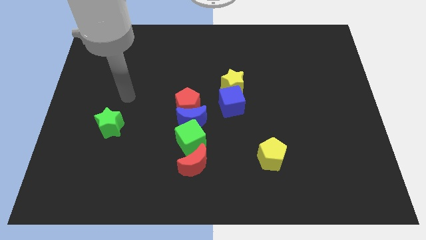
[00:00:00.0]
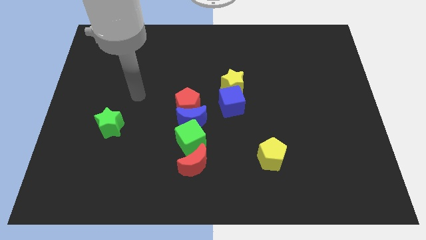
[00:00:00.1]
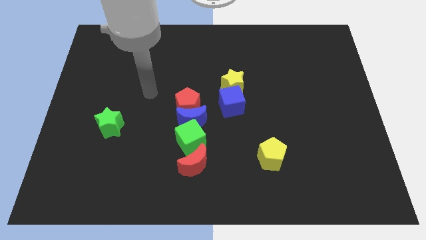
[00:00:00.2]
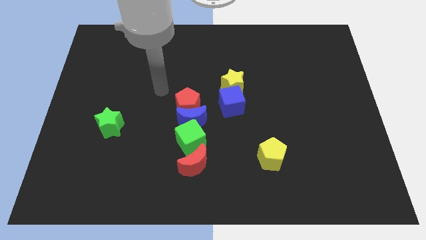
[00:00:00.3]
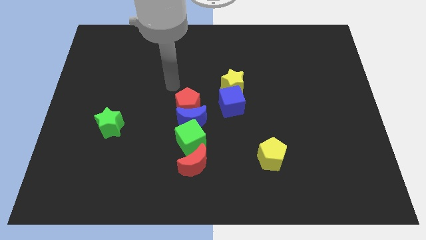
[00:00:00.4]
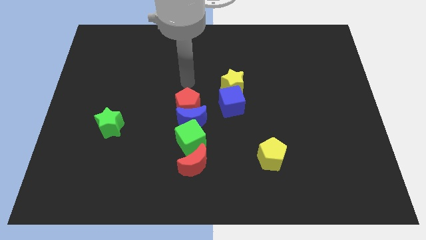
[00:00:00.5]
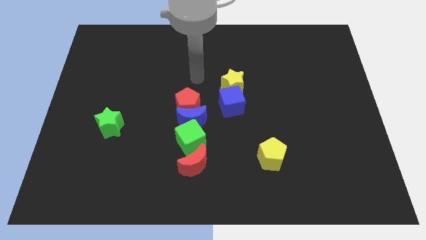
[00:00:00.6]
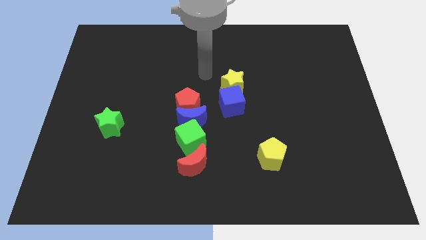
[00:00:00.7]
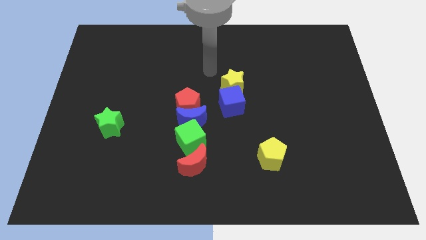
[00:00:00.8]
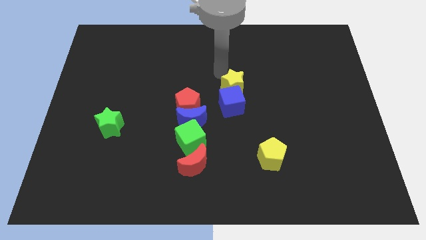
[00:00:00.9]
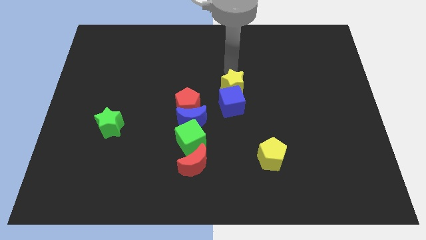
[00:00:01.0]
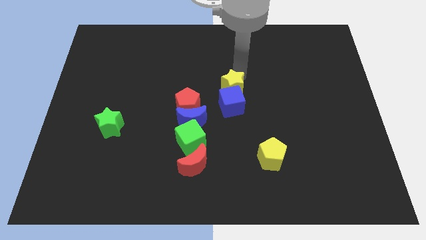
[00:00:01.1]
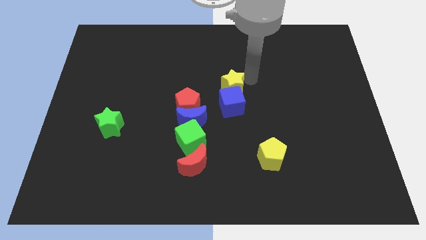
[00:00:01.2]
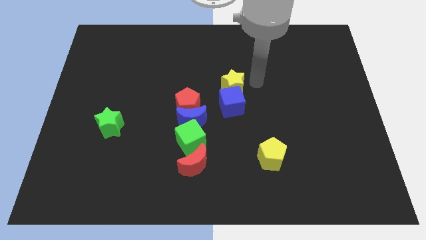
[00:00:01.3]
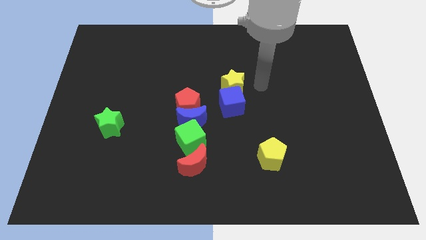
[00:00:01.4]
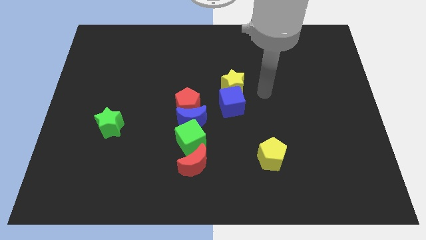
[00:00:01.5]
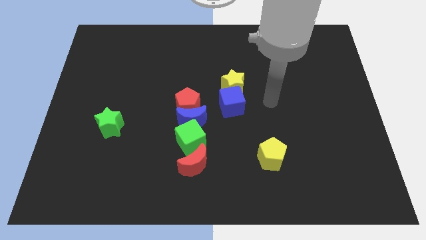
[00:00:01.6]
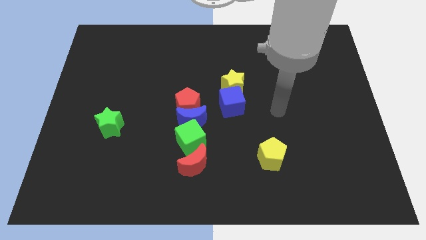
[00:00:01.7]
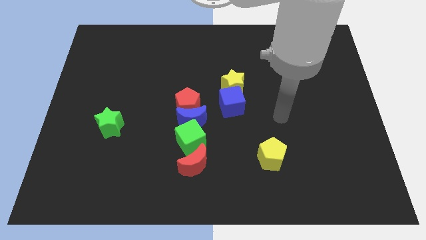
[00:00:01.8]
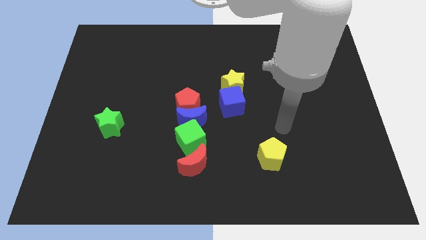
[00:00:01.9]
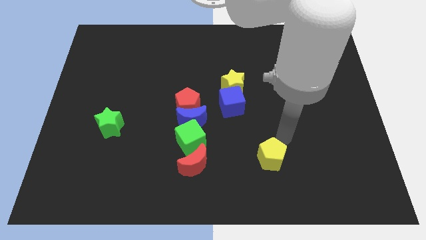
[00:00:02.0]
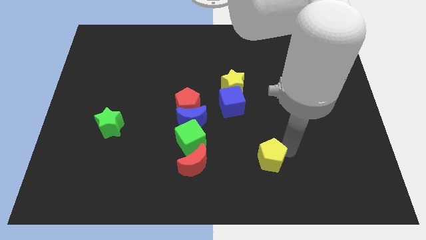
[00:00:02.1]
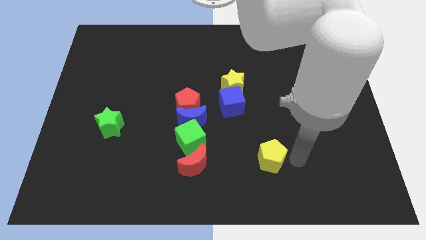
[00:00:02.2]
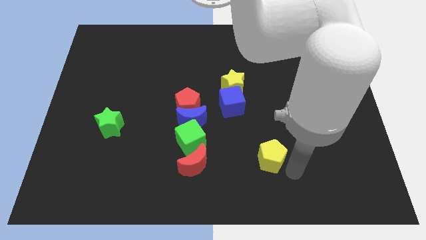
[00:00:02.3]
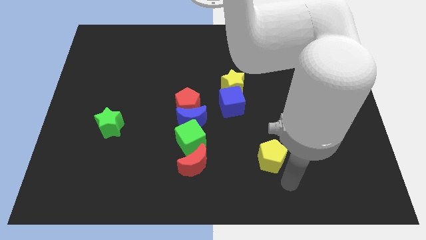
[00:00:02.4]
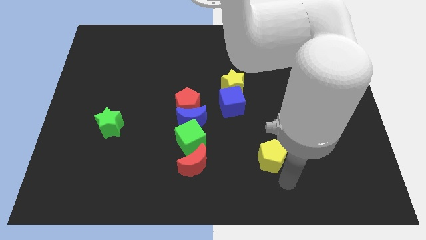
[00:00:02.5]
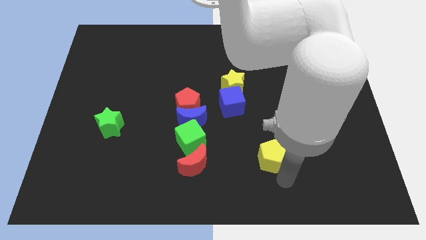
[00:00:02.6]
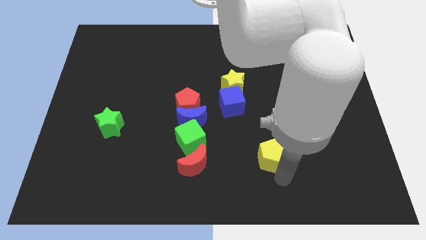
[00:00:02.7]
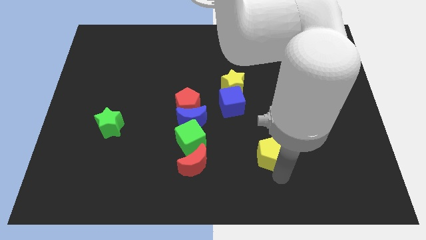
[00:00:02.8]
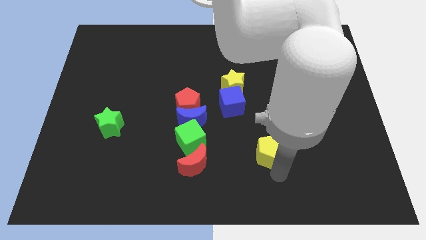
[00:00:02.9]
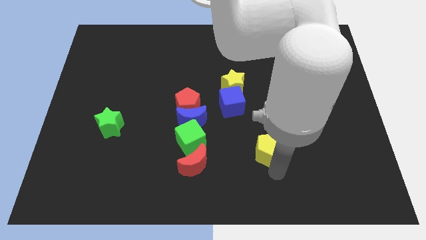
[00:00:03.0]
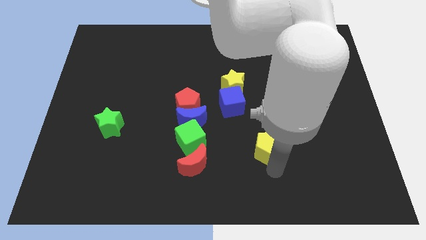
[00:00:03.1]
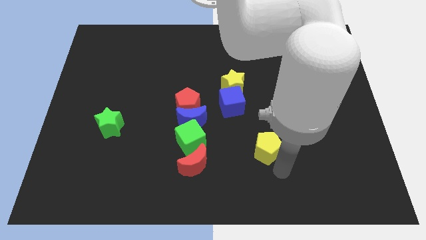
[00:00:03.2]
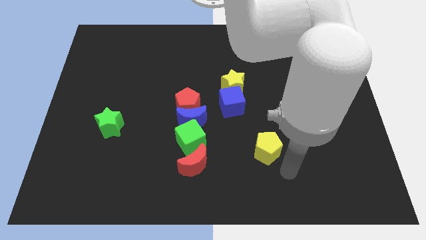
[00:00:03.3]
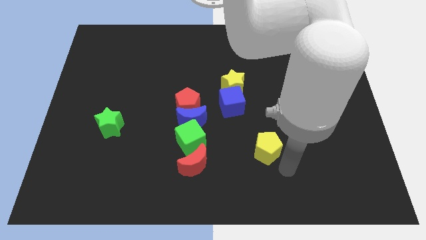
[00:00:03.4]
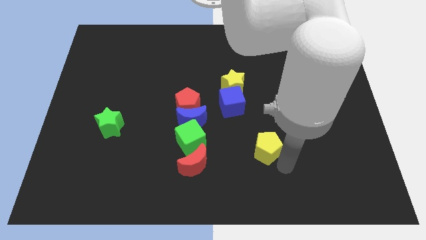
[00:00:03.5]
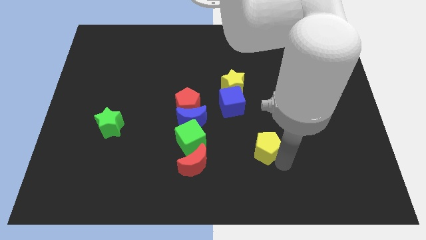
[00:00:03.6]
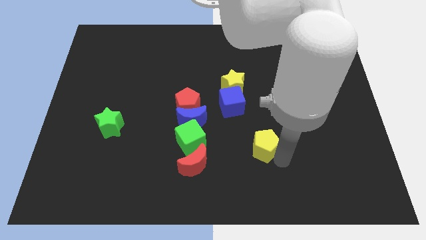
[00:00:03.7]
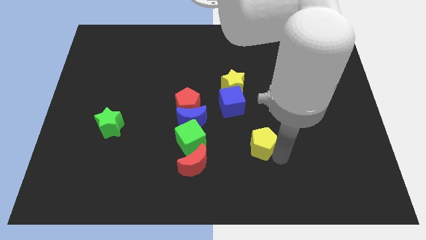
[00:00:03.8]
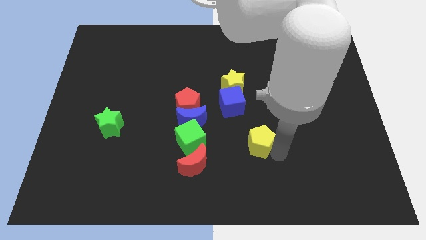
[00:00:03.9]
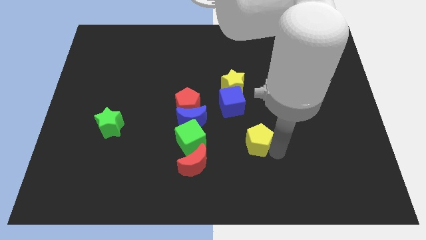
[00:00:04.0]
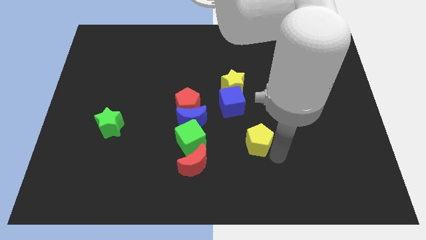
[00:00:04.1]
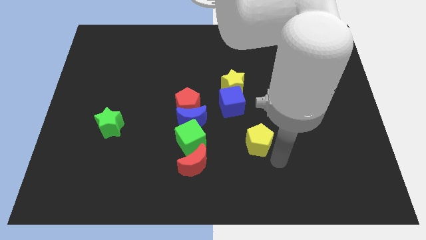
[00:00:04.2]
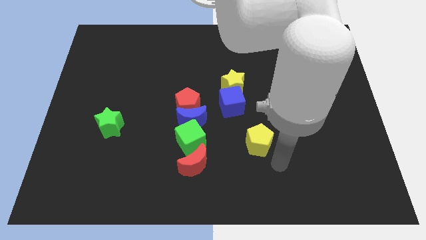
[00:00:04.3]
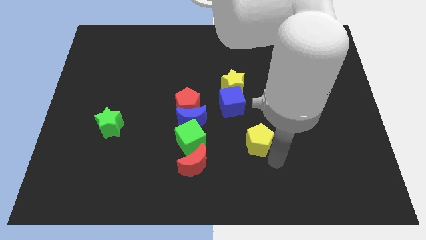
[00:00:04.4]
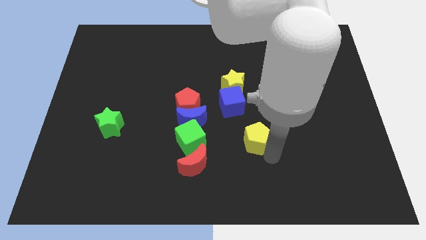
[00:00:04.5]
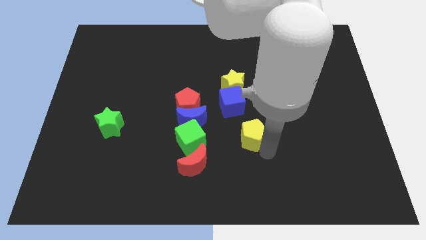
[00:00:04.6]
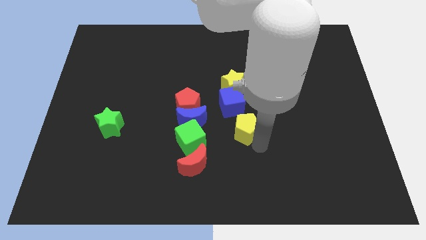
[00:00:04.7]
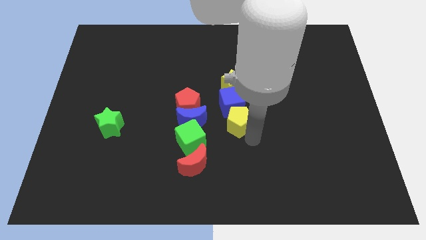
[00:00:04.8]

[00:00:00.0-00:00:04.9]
push the yellow pentagon towards the blue cube

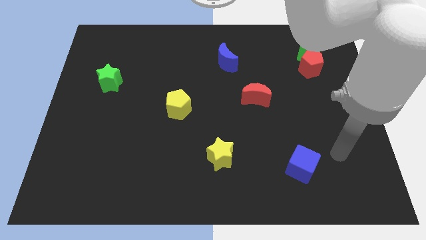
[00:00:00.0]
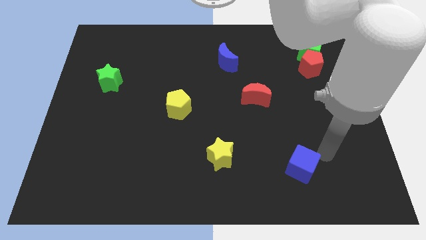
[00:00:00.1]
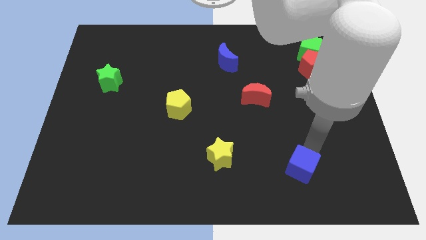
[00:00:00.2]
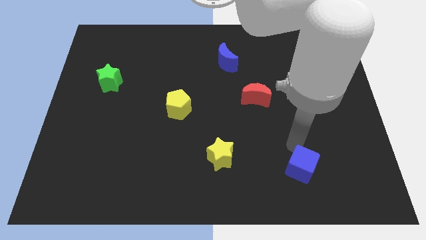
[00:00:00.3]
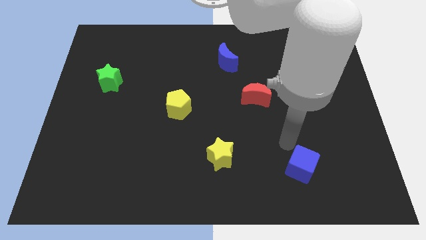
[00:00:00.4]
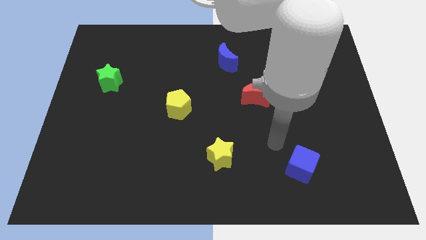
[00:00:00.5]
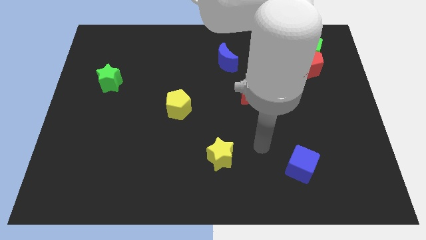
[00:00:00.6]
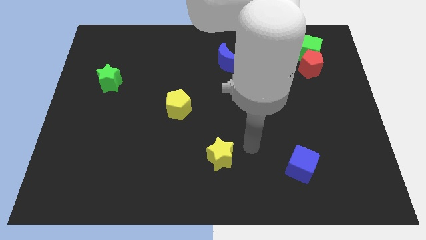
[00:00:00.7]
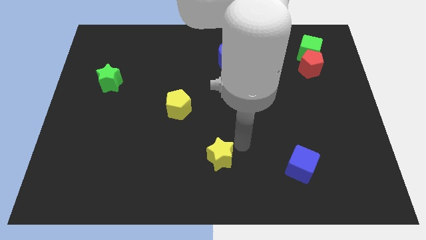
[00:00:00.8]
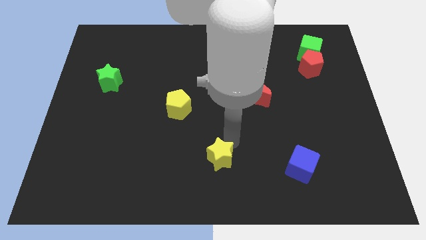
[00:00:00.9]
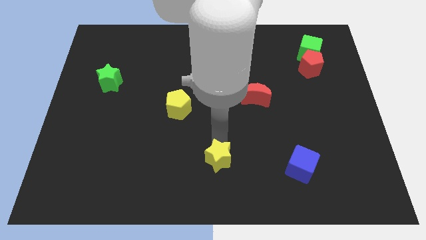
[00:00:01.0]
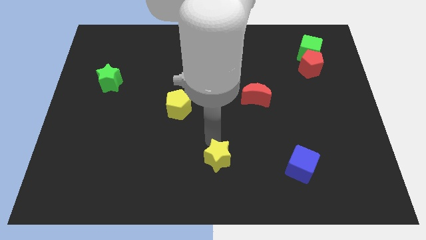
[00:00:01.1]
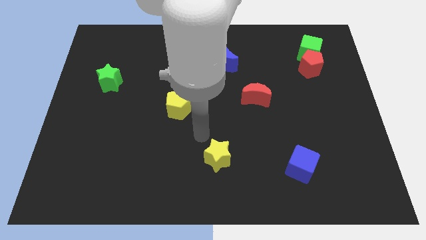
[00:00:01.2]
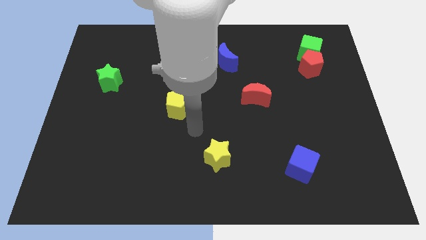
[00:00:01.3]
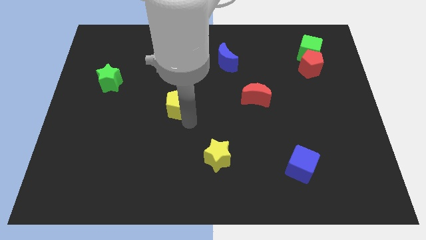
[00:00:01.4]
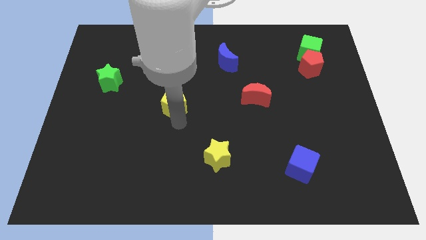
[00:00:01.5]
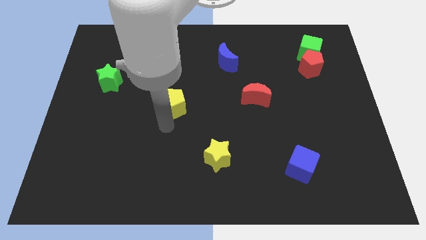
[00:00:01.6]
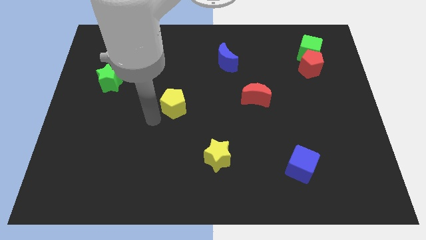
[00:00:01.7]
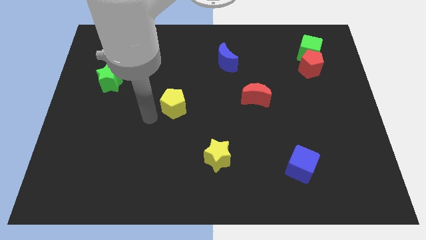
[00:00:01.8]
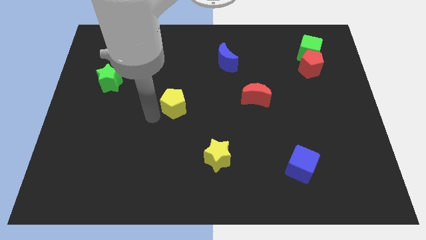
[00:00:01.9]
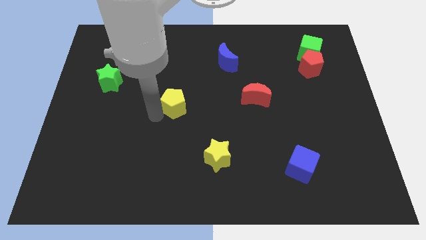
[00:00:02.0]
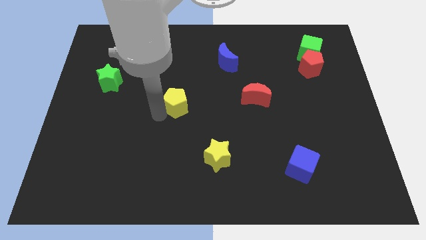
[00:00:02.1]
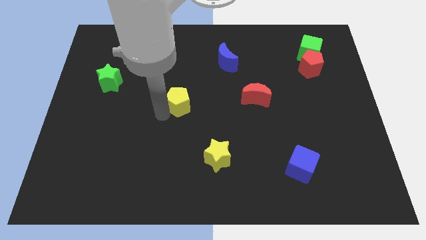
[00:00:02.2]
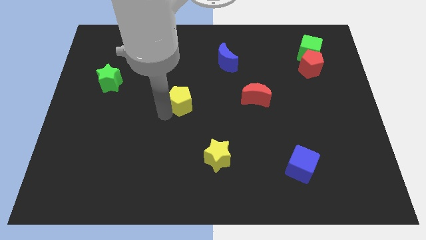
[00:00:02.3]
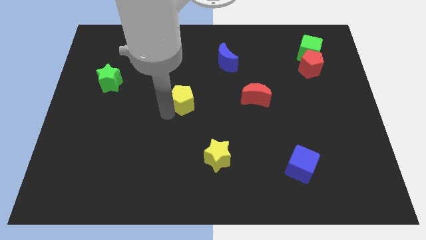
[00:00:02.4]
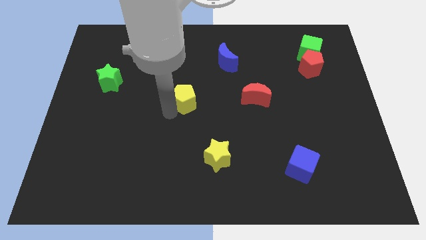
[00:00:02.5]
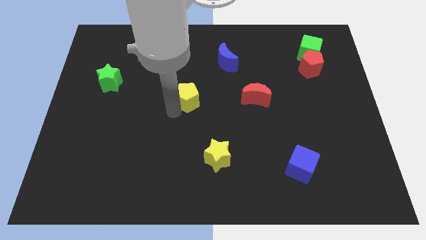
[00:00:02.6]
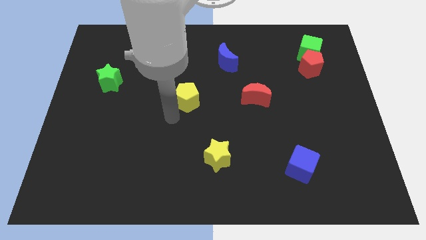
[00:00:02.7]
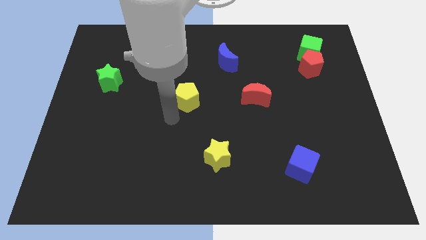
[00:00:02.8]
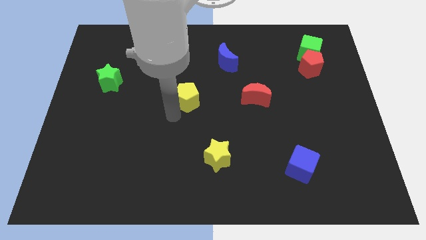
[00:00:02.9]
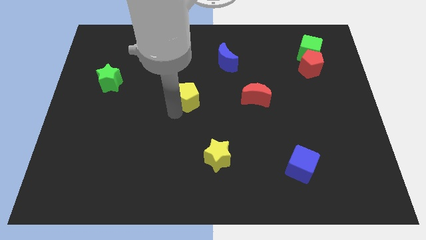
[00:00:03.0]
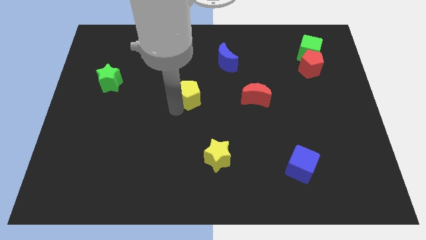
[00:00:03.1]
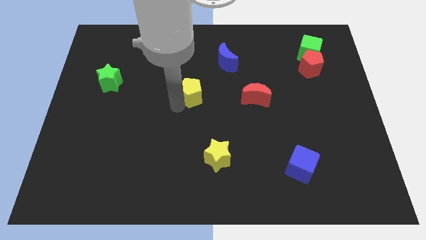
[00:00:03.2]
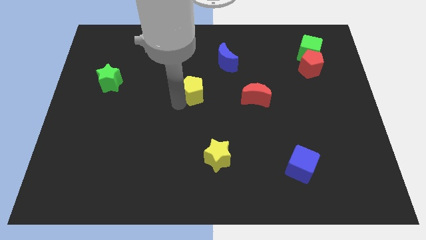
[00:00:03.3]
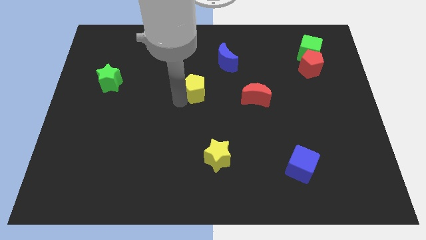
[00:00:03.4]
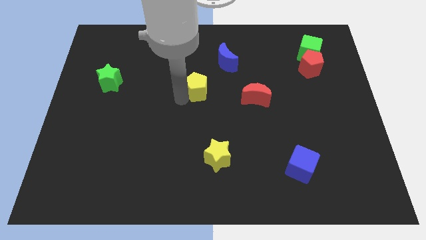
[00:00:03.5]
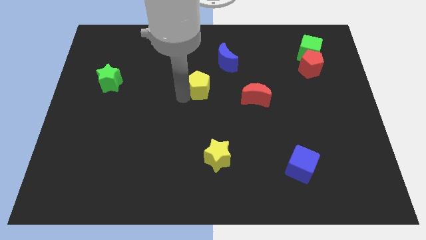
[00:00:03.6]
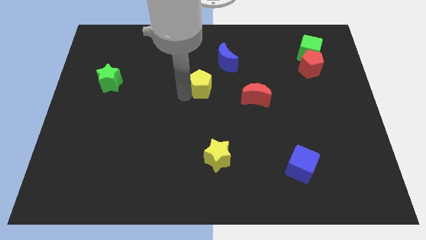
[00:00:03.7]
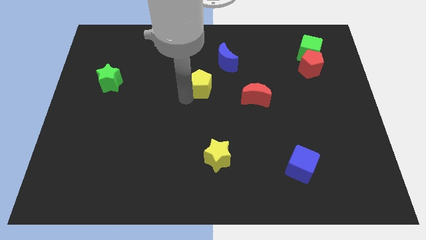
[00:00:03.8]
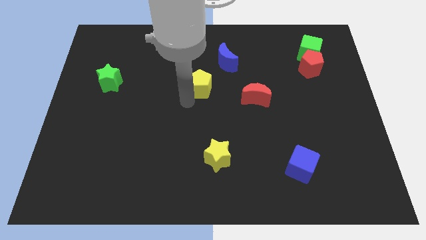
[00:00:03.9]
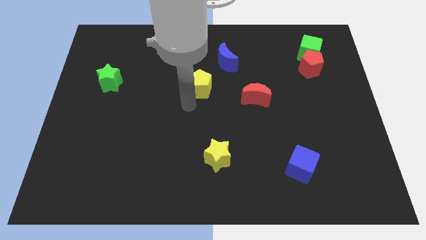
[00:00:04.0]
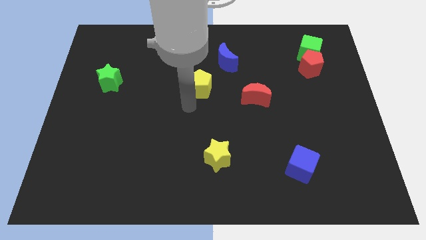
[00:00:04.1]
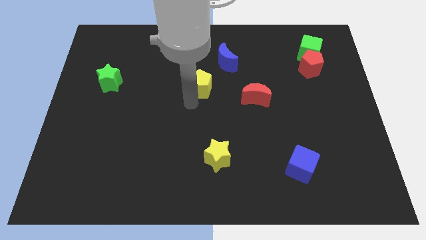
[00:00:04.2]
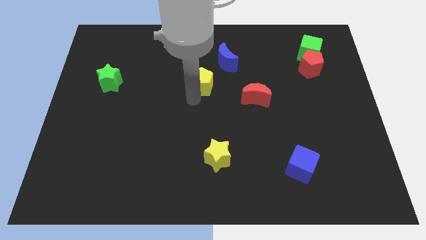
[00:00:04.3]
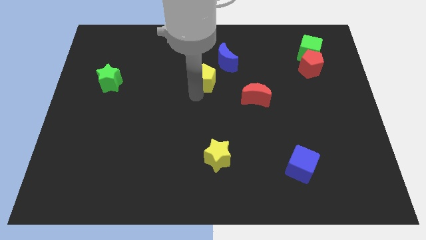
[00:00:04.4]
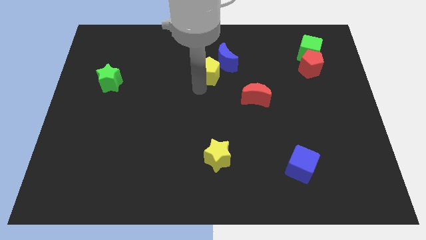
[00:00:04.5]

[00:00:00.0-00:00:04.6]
push the yellow pentagon close to the blue moon
